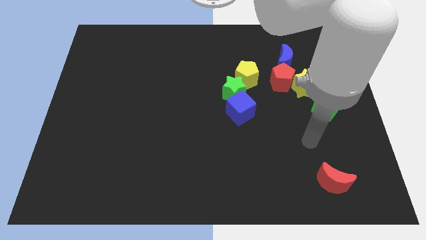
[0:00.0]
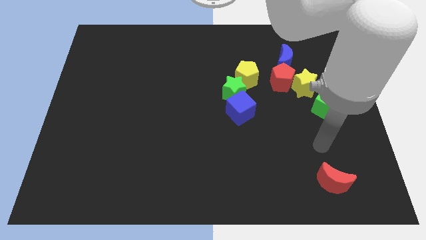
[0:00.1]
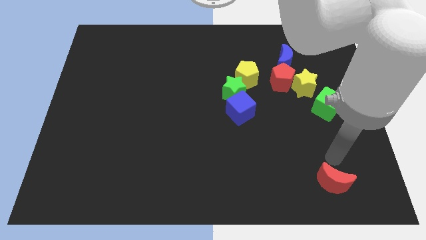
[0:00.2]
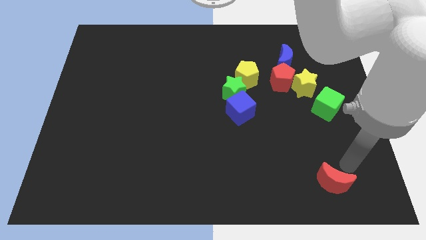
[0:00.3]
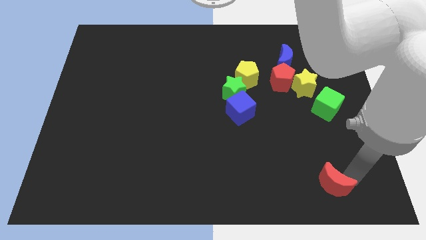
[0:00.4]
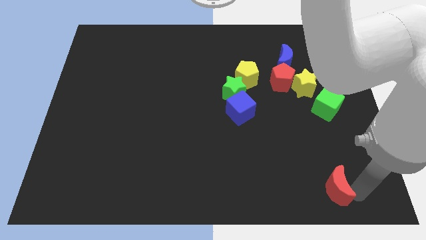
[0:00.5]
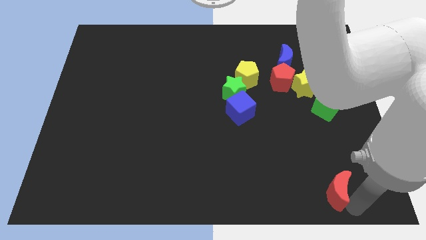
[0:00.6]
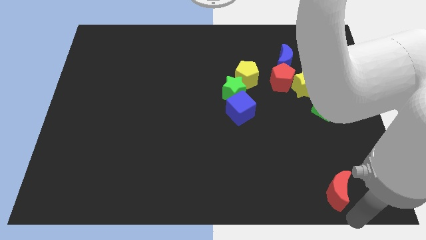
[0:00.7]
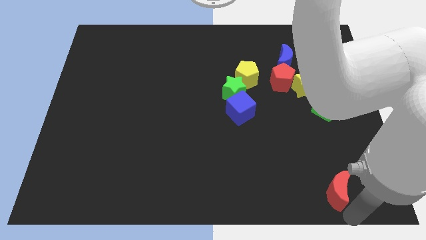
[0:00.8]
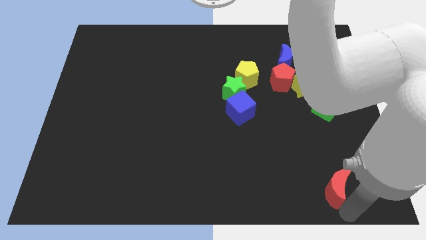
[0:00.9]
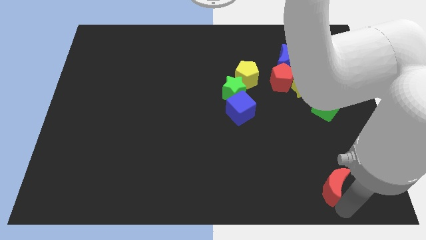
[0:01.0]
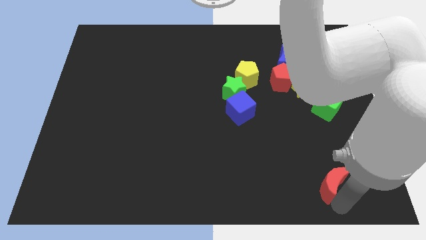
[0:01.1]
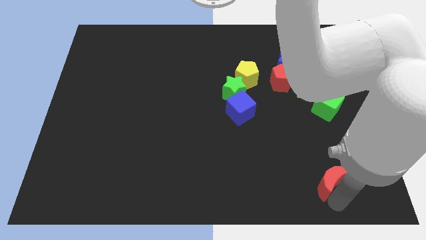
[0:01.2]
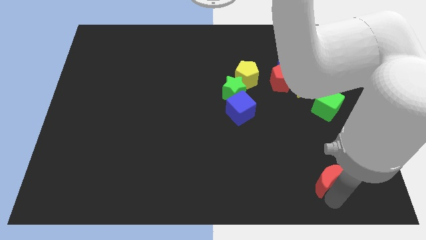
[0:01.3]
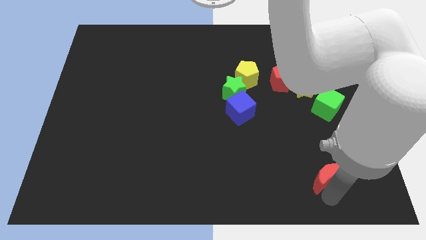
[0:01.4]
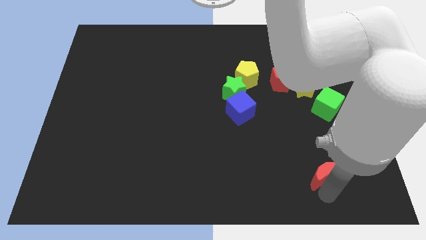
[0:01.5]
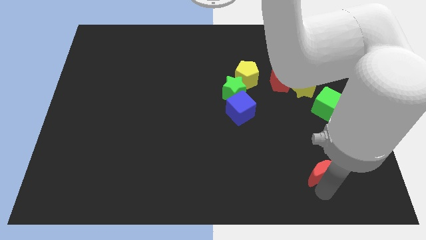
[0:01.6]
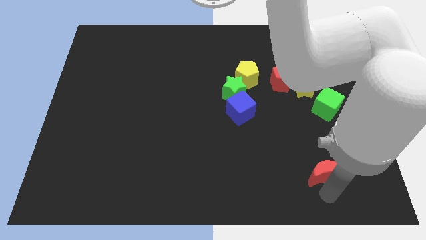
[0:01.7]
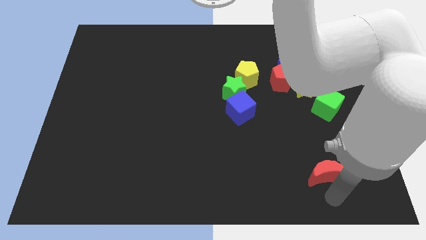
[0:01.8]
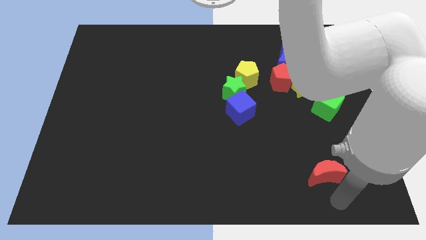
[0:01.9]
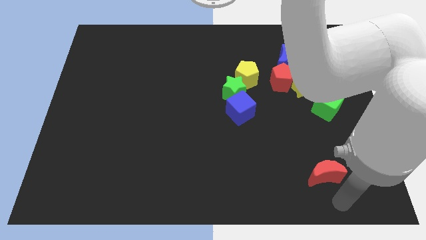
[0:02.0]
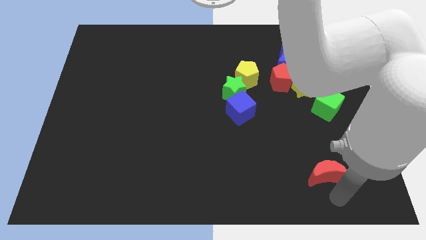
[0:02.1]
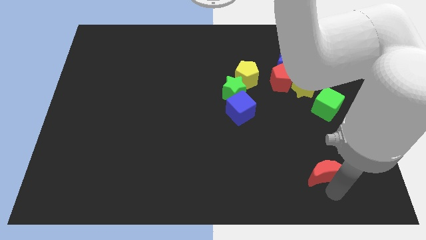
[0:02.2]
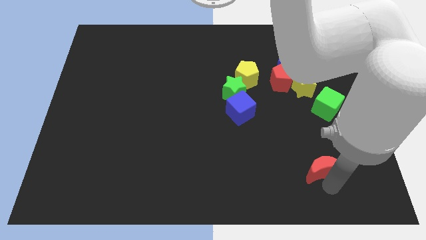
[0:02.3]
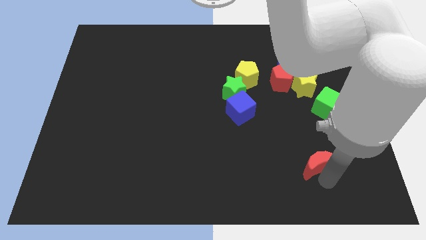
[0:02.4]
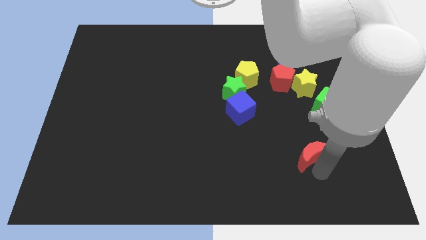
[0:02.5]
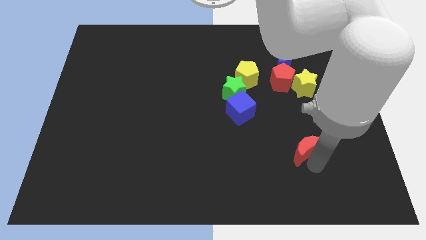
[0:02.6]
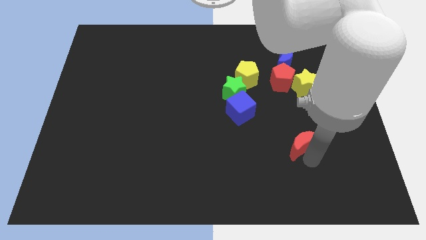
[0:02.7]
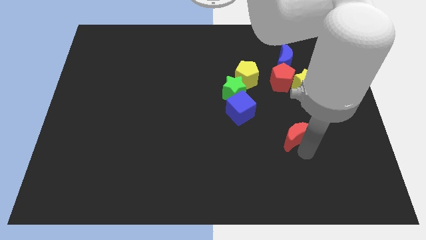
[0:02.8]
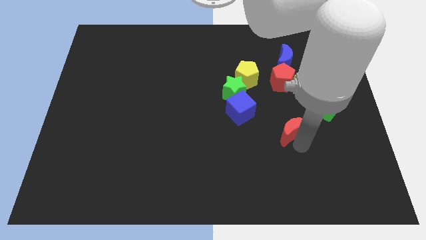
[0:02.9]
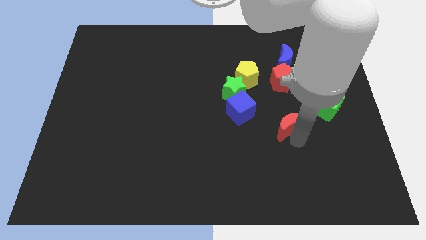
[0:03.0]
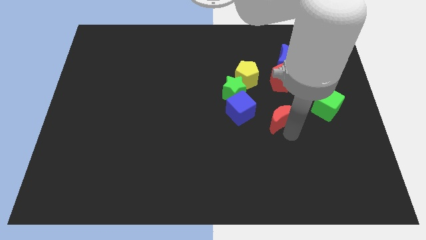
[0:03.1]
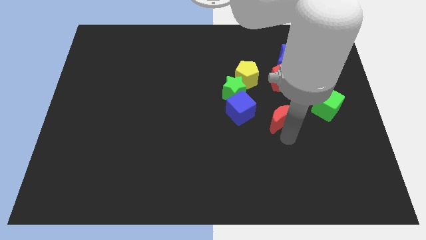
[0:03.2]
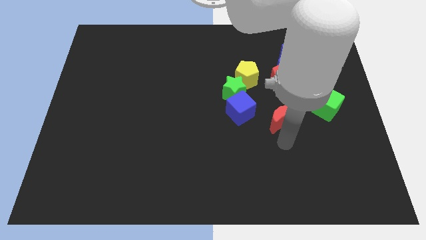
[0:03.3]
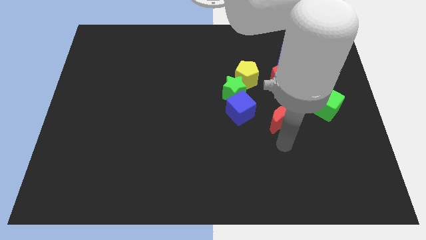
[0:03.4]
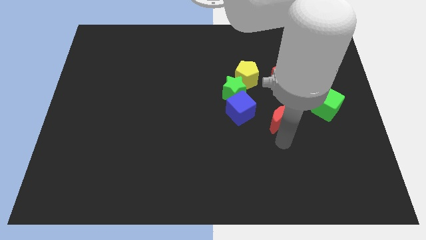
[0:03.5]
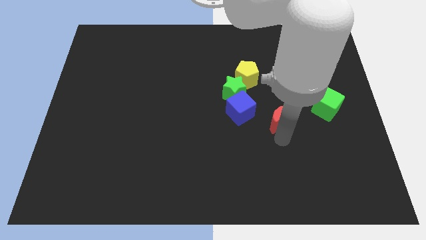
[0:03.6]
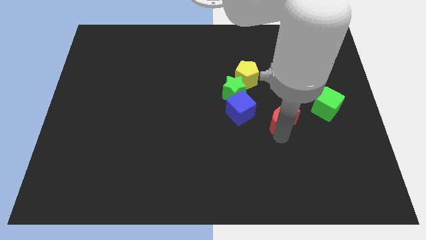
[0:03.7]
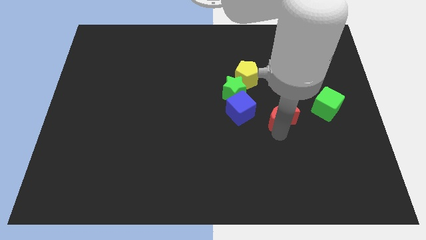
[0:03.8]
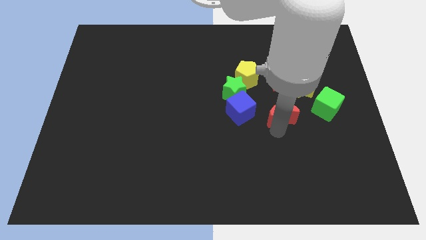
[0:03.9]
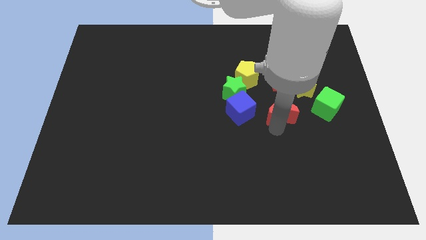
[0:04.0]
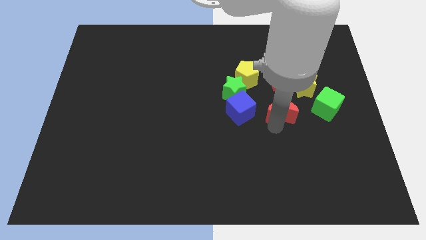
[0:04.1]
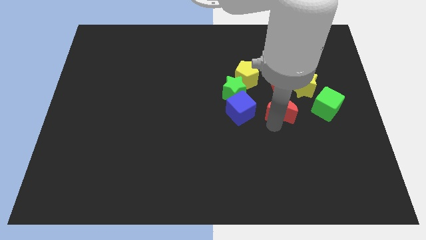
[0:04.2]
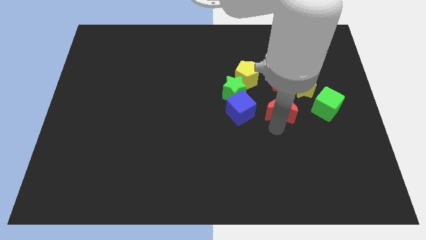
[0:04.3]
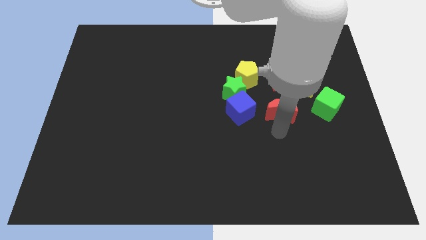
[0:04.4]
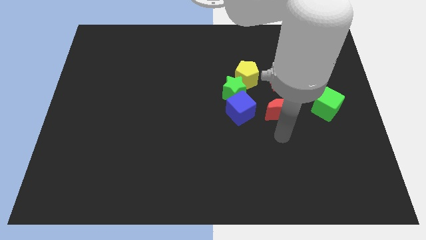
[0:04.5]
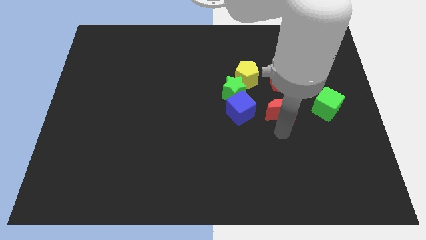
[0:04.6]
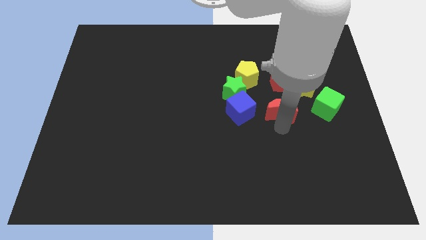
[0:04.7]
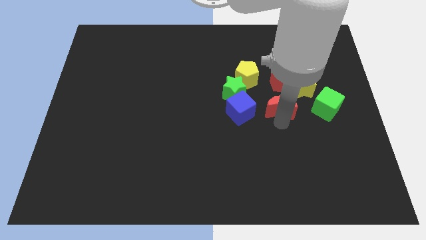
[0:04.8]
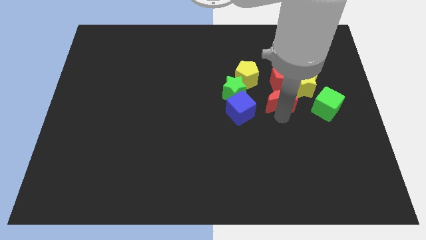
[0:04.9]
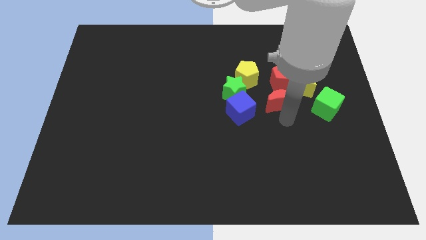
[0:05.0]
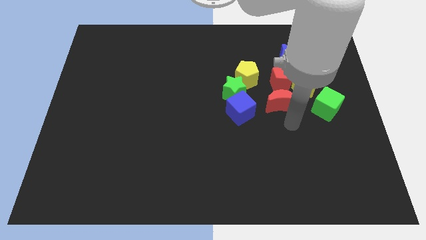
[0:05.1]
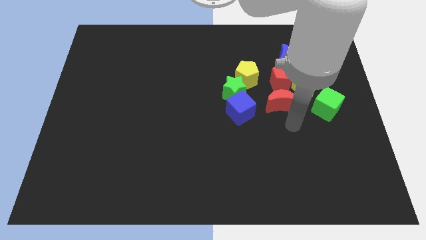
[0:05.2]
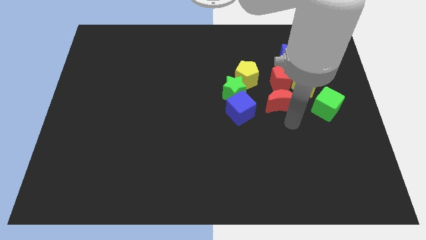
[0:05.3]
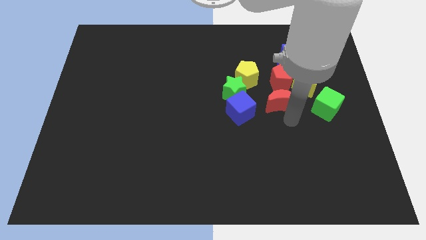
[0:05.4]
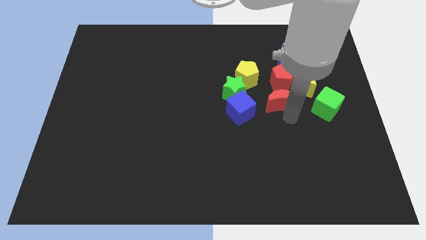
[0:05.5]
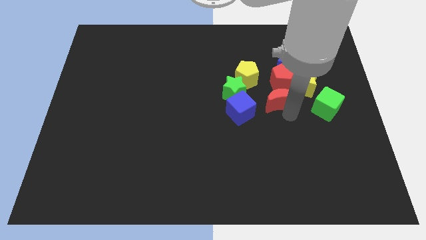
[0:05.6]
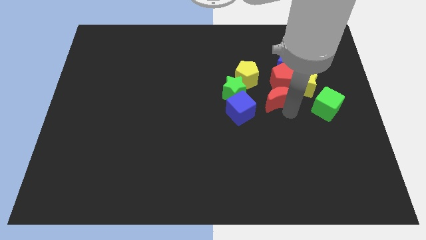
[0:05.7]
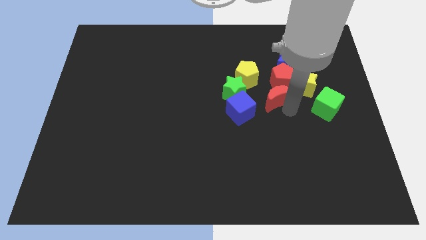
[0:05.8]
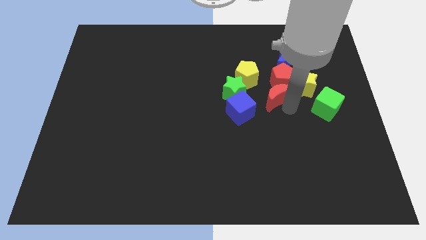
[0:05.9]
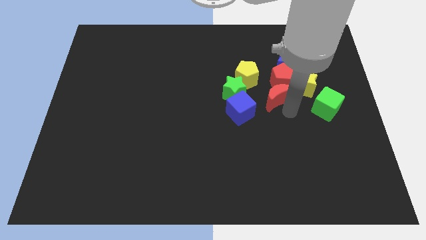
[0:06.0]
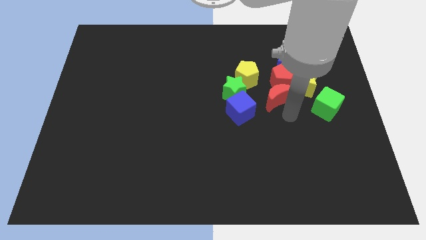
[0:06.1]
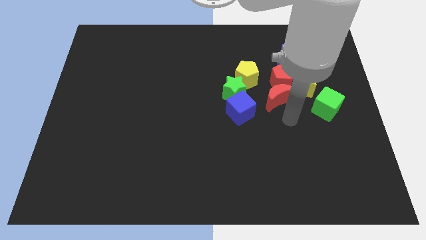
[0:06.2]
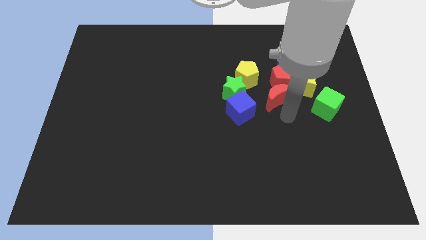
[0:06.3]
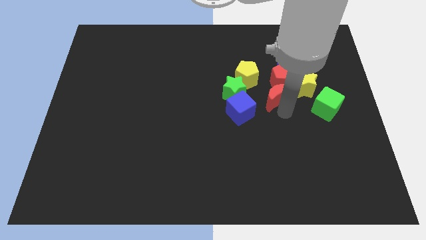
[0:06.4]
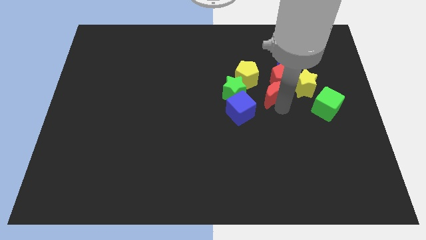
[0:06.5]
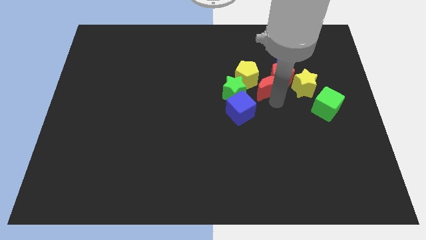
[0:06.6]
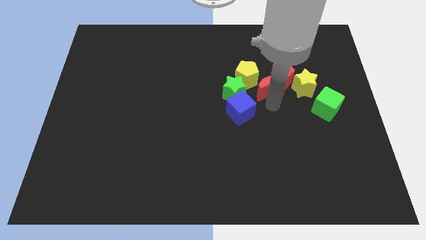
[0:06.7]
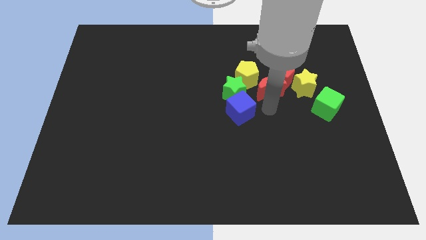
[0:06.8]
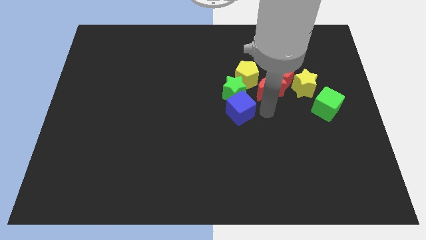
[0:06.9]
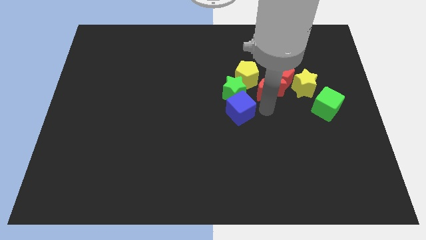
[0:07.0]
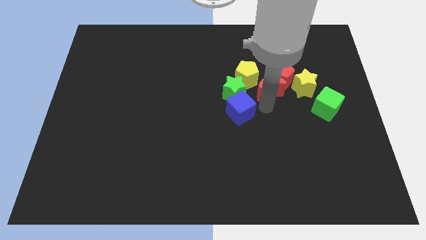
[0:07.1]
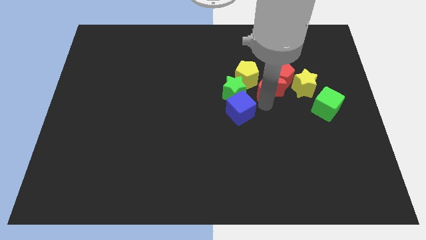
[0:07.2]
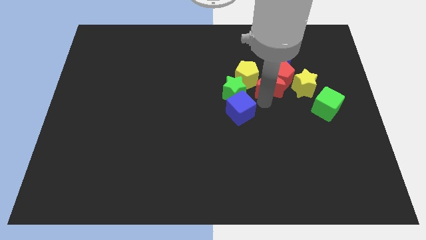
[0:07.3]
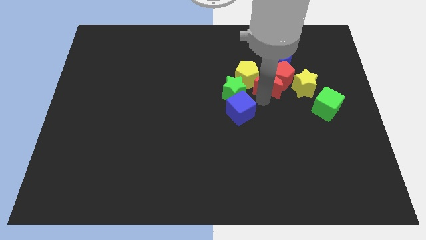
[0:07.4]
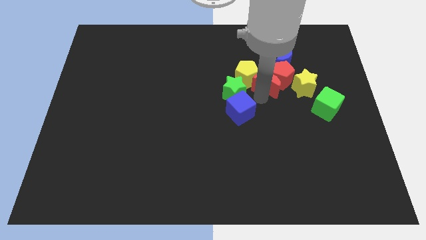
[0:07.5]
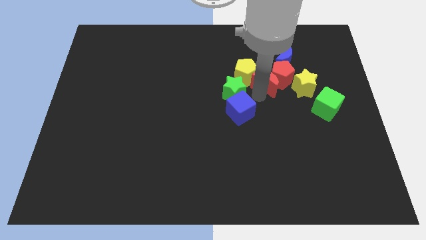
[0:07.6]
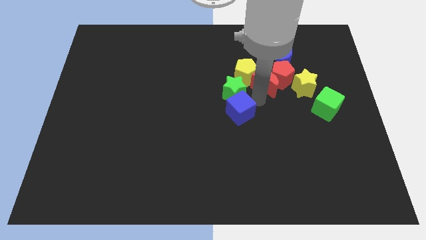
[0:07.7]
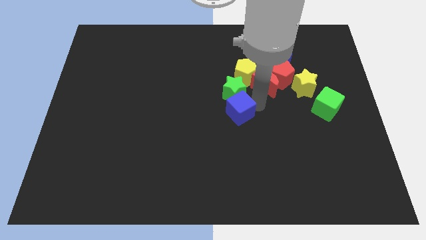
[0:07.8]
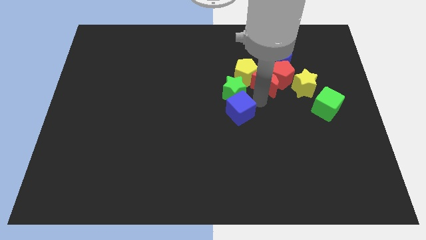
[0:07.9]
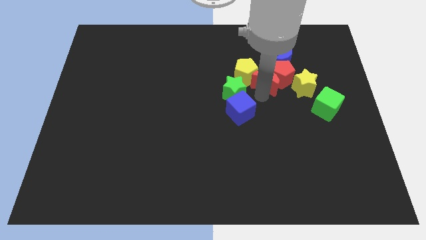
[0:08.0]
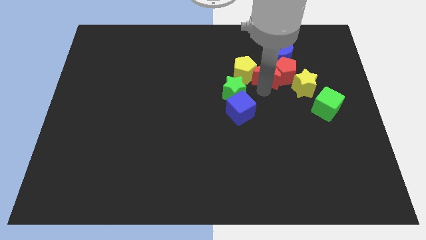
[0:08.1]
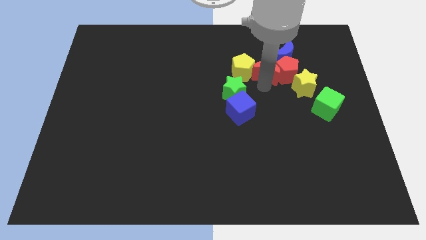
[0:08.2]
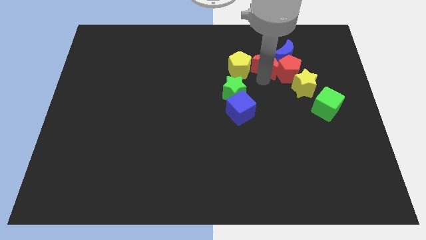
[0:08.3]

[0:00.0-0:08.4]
push the red moon to the blue moon
